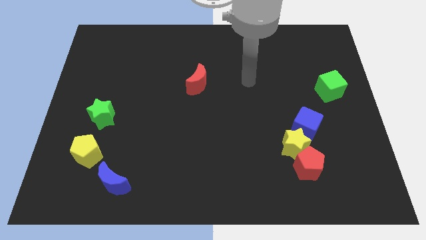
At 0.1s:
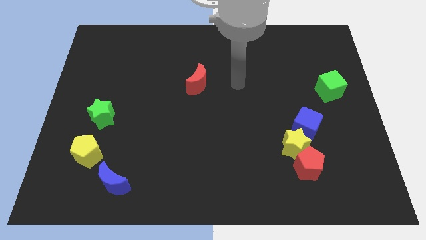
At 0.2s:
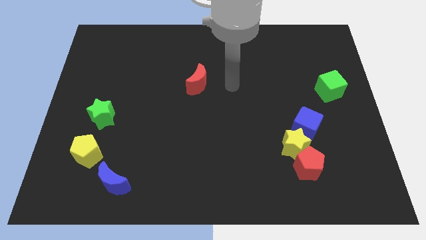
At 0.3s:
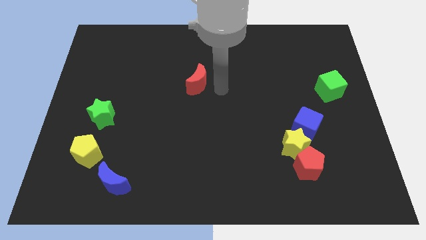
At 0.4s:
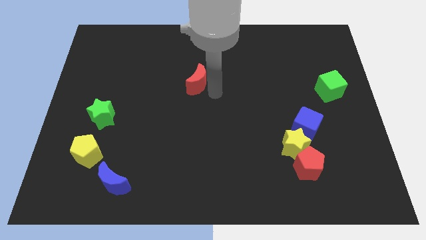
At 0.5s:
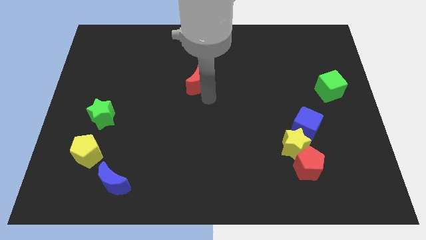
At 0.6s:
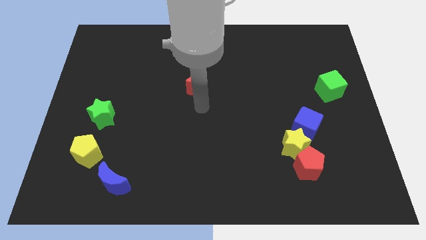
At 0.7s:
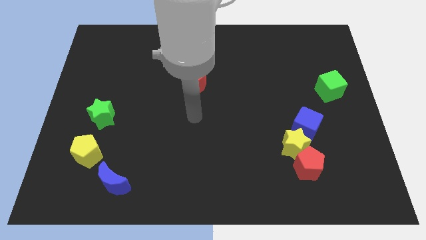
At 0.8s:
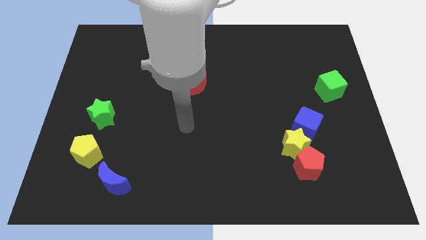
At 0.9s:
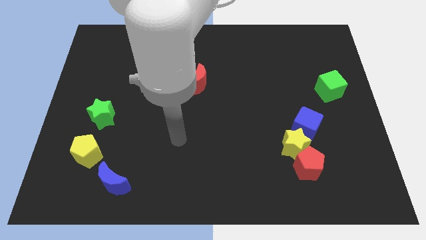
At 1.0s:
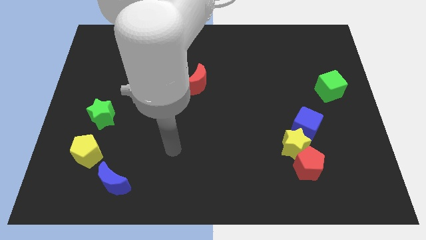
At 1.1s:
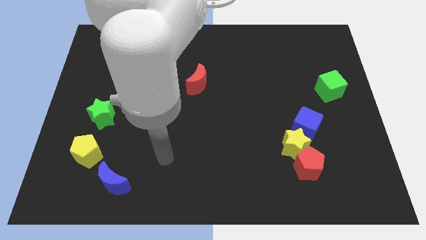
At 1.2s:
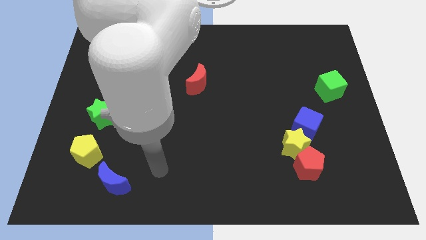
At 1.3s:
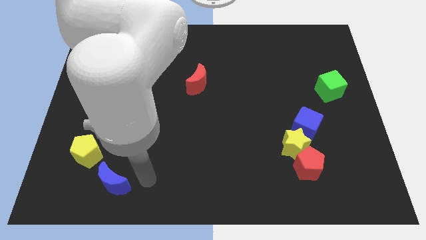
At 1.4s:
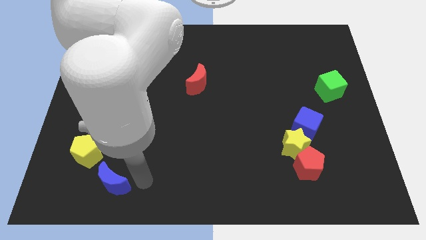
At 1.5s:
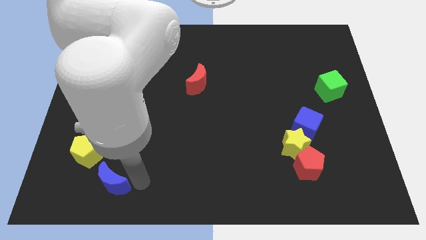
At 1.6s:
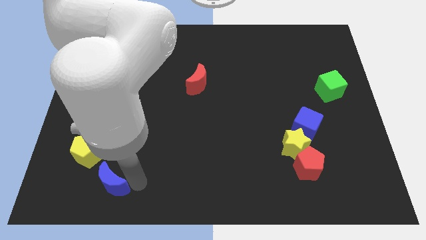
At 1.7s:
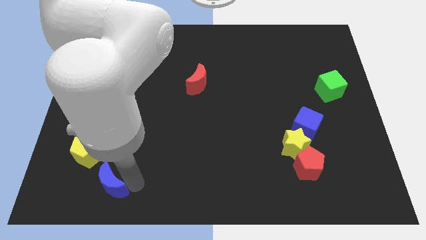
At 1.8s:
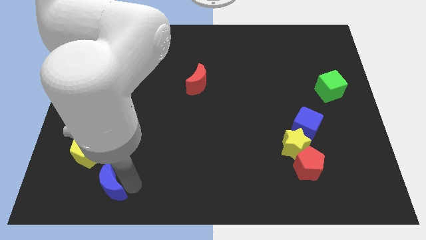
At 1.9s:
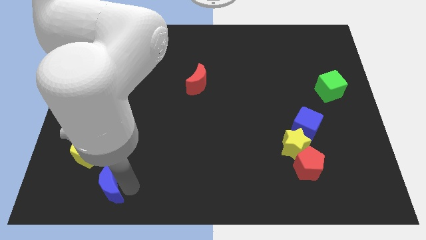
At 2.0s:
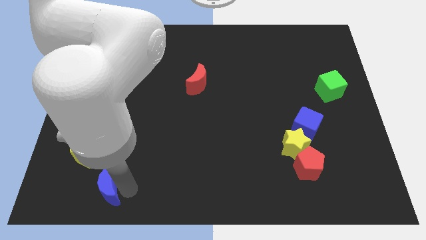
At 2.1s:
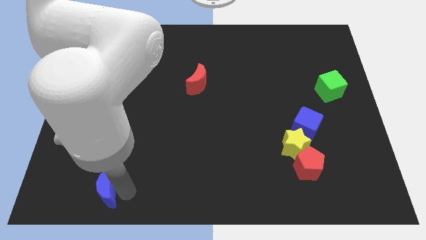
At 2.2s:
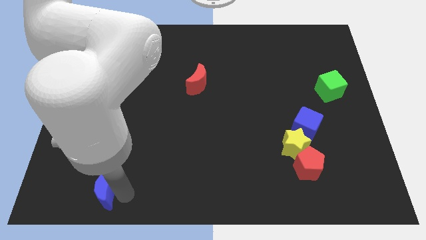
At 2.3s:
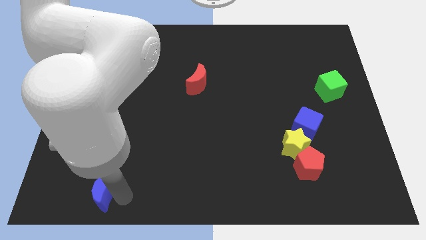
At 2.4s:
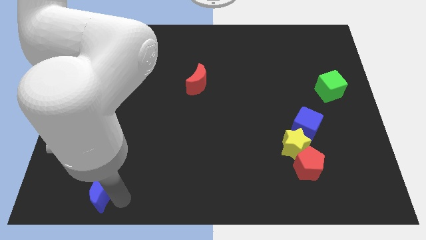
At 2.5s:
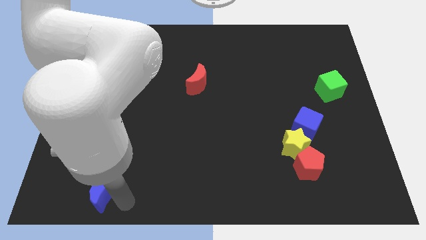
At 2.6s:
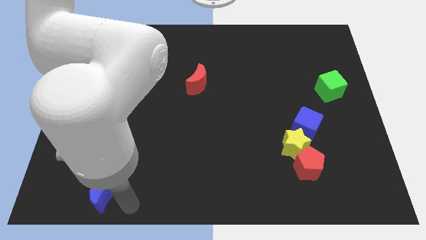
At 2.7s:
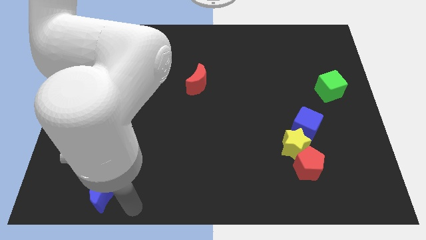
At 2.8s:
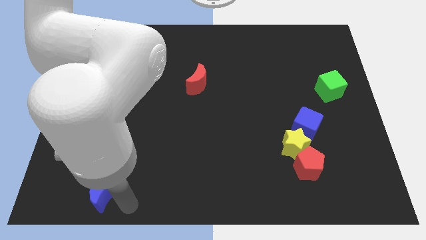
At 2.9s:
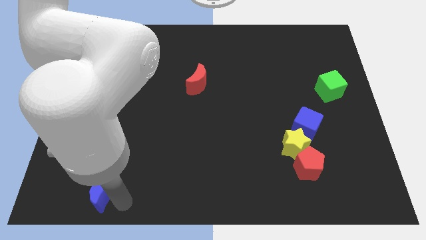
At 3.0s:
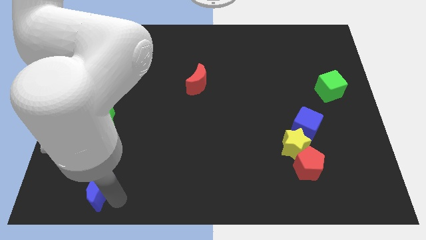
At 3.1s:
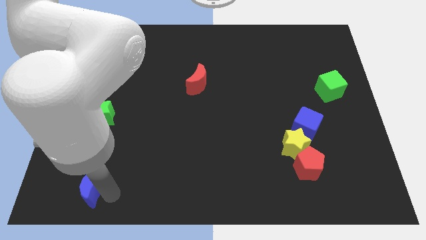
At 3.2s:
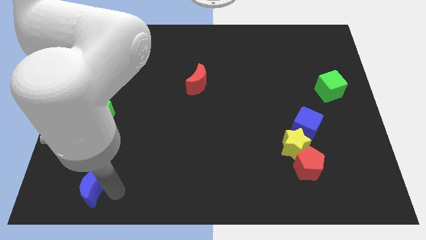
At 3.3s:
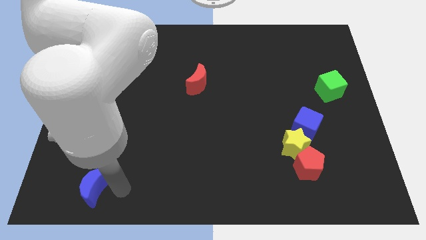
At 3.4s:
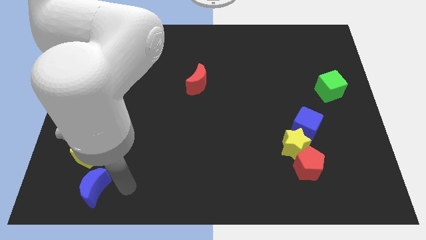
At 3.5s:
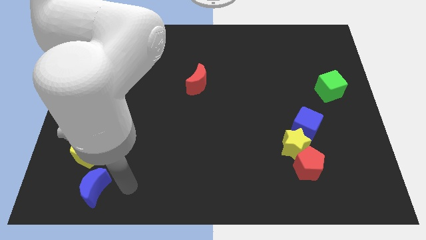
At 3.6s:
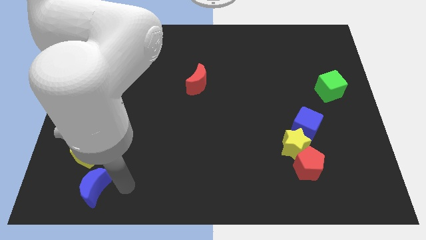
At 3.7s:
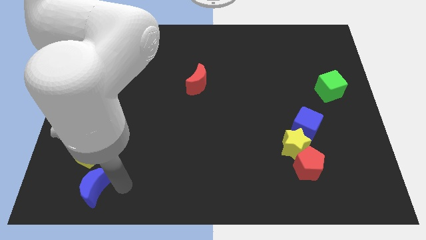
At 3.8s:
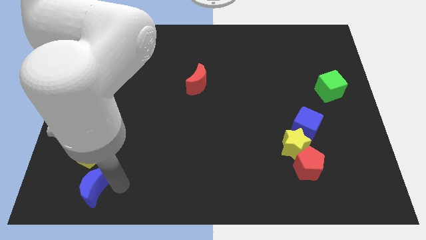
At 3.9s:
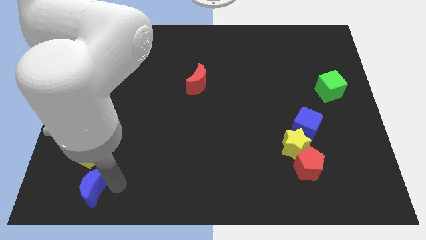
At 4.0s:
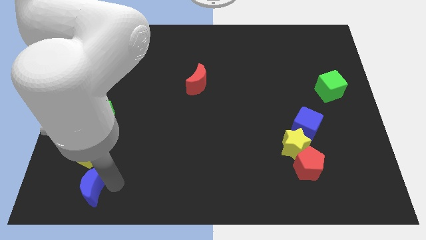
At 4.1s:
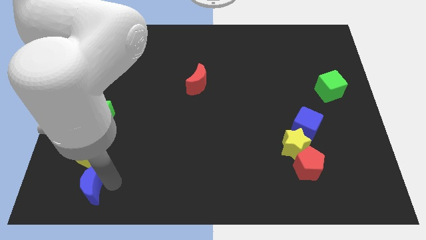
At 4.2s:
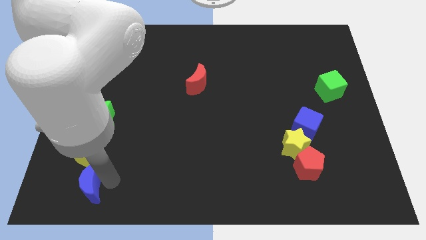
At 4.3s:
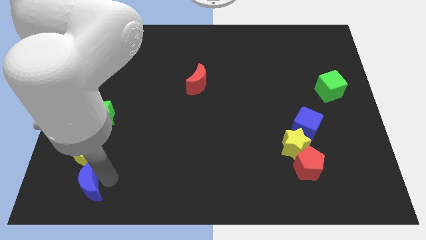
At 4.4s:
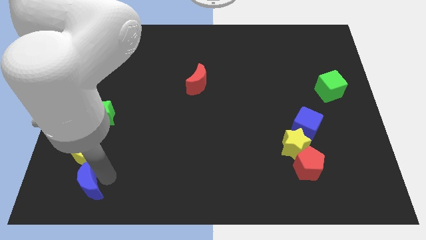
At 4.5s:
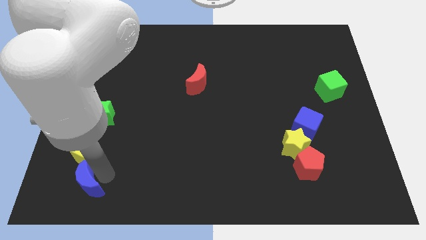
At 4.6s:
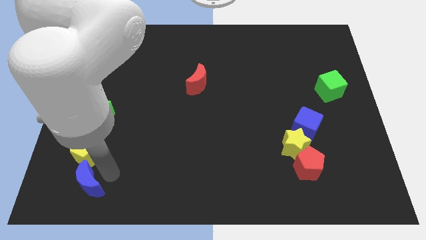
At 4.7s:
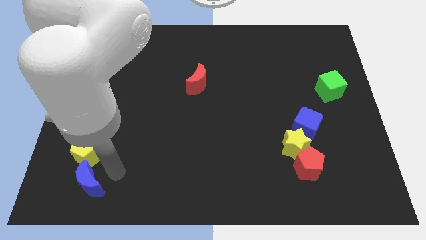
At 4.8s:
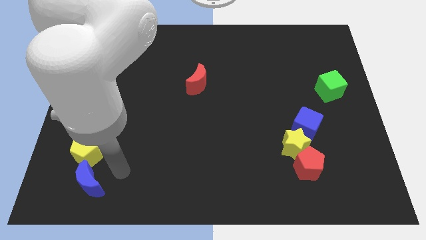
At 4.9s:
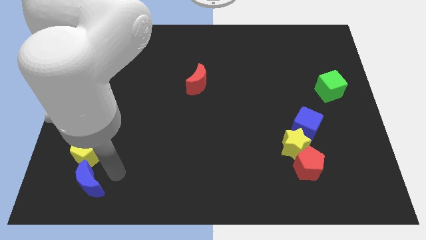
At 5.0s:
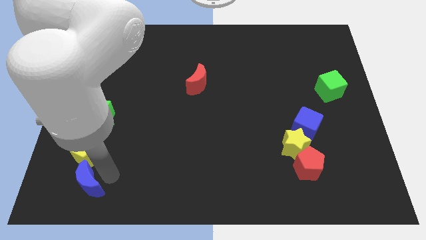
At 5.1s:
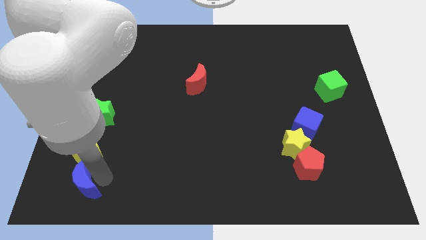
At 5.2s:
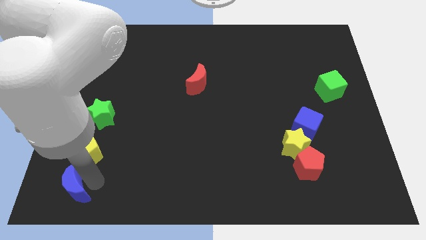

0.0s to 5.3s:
move the blue moon to the bottom left corner

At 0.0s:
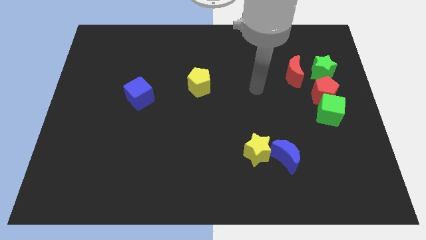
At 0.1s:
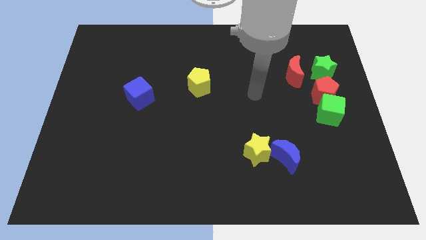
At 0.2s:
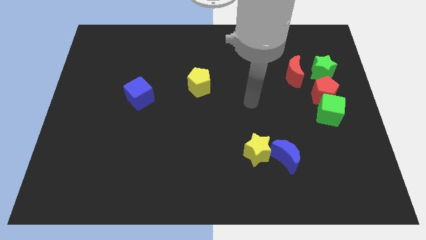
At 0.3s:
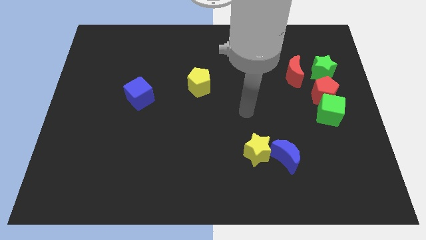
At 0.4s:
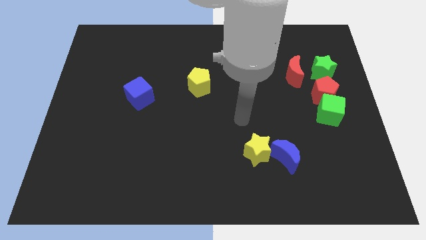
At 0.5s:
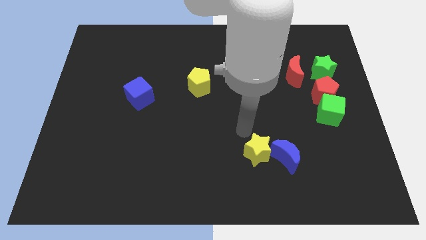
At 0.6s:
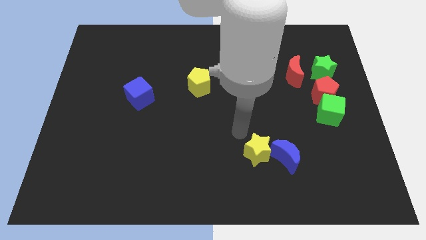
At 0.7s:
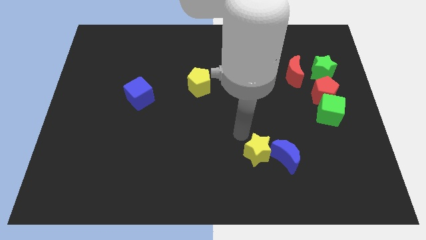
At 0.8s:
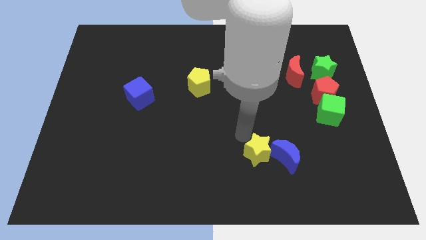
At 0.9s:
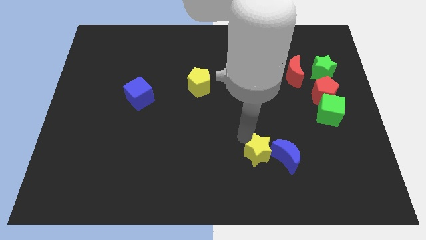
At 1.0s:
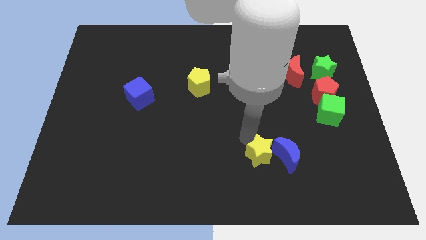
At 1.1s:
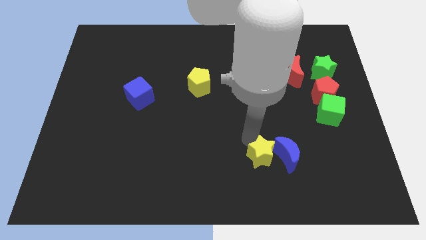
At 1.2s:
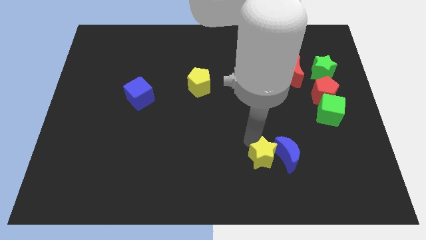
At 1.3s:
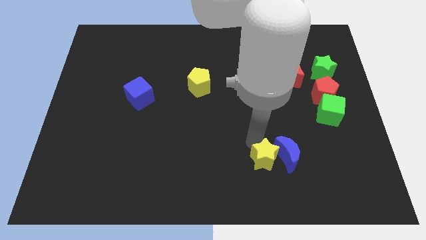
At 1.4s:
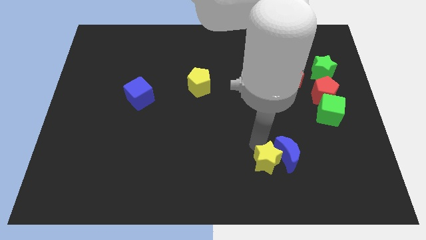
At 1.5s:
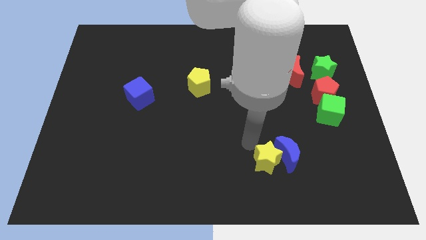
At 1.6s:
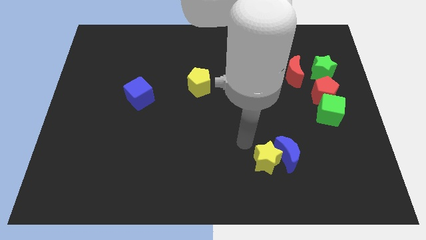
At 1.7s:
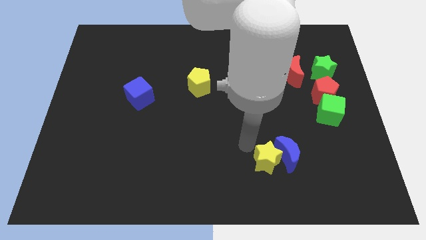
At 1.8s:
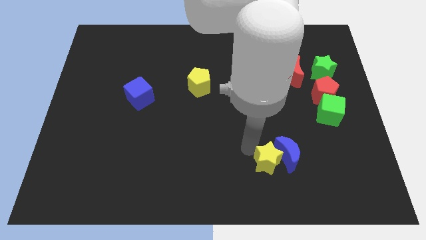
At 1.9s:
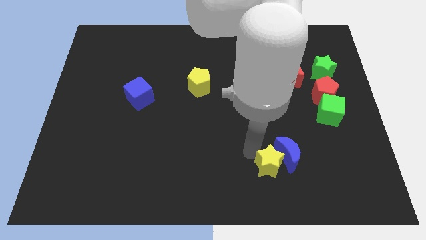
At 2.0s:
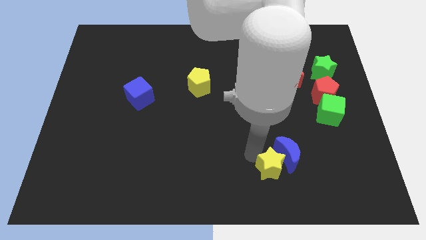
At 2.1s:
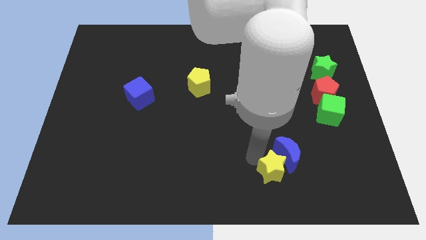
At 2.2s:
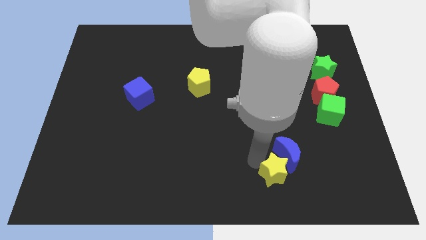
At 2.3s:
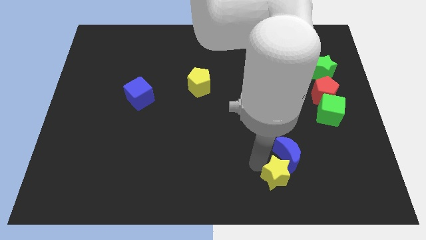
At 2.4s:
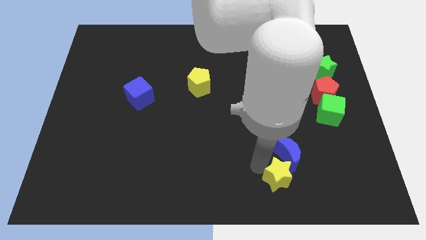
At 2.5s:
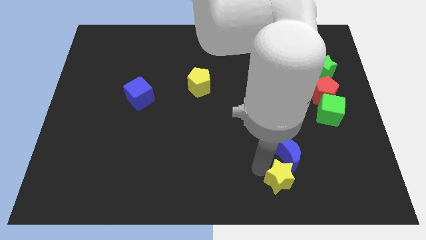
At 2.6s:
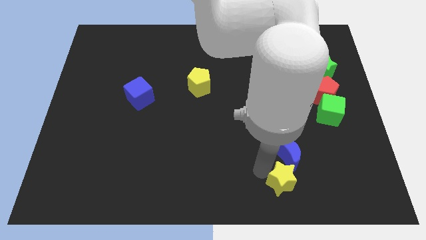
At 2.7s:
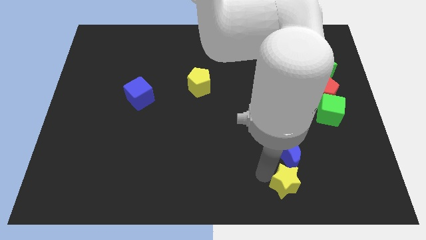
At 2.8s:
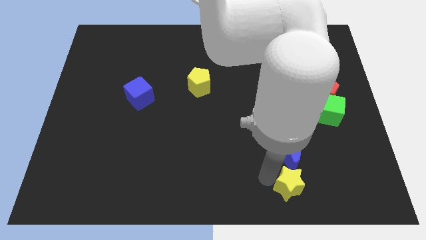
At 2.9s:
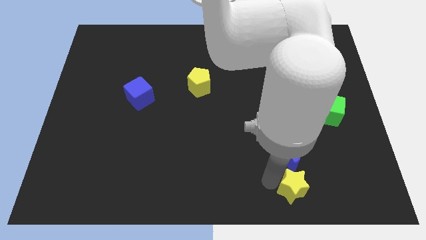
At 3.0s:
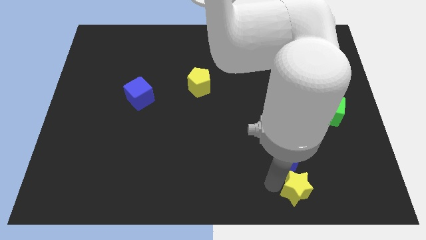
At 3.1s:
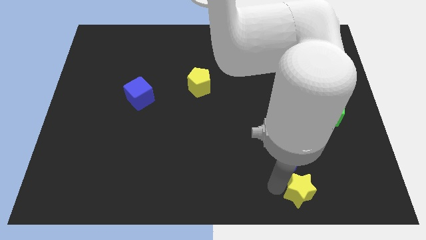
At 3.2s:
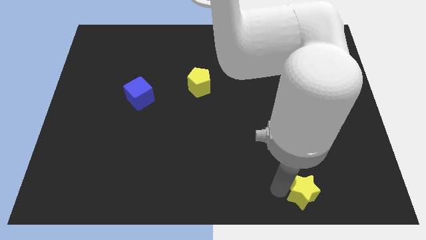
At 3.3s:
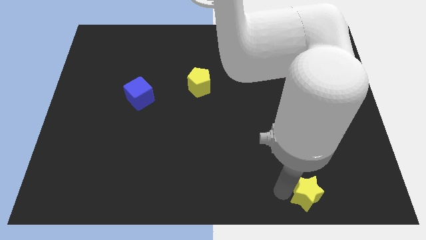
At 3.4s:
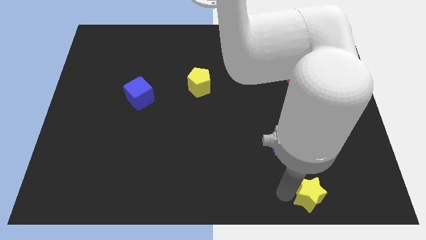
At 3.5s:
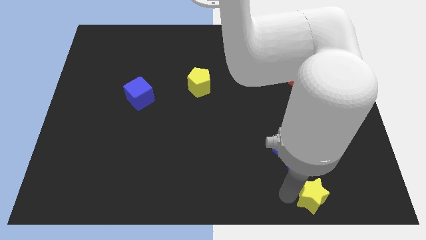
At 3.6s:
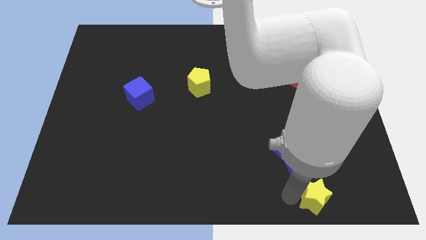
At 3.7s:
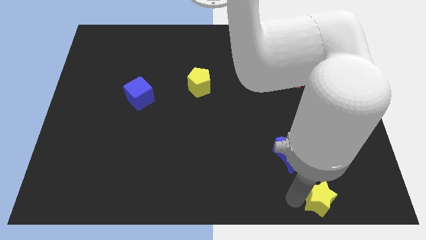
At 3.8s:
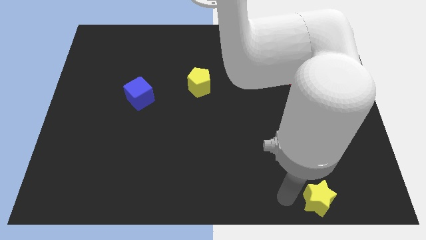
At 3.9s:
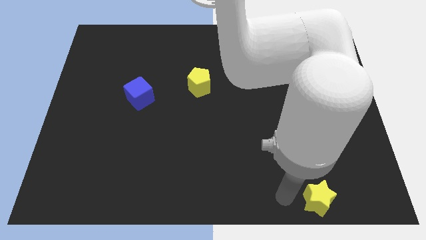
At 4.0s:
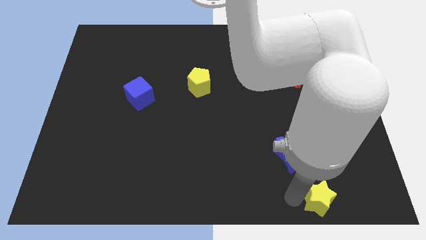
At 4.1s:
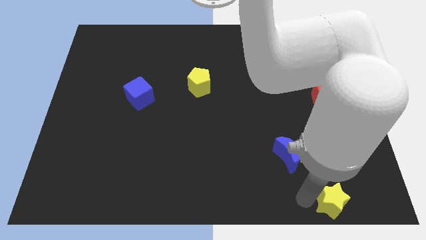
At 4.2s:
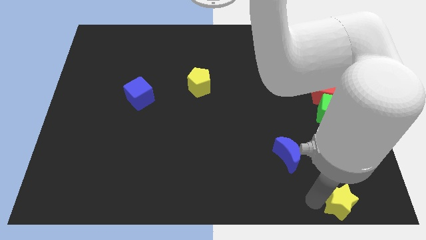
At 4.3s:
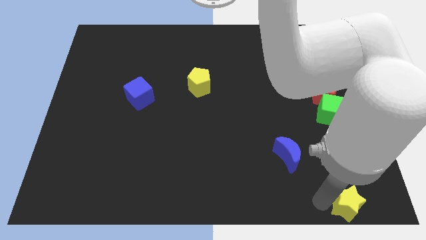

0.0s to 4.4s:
slide the yellow star to the lower right corner
